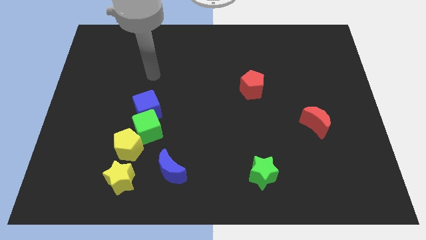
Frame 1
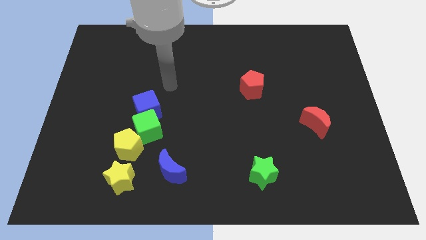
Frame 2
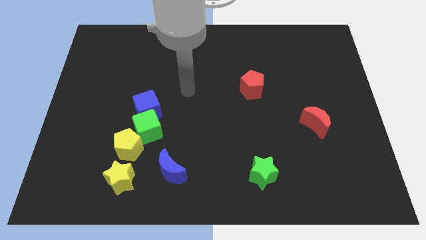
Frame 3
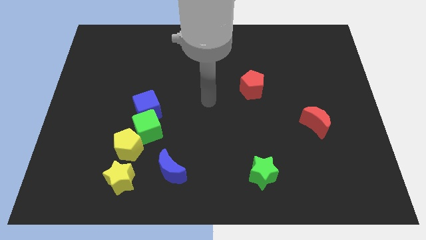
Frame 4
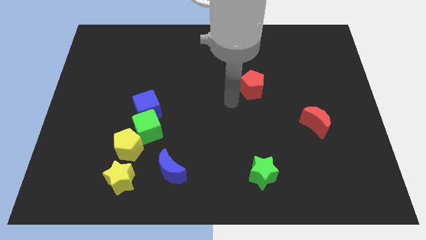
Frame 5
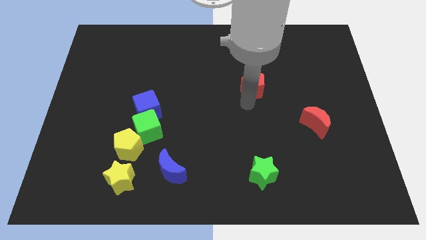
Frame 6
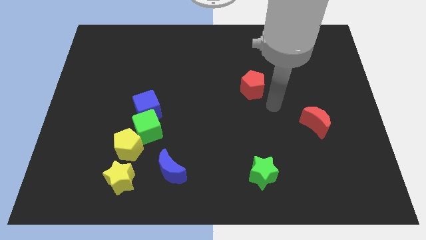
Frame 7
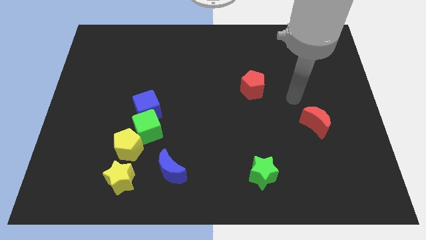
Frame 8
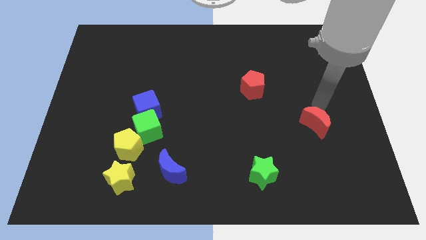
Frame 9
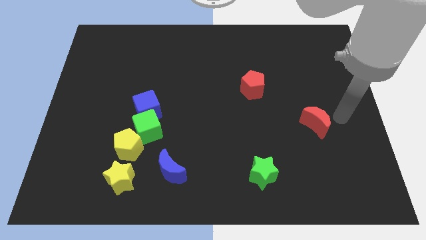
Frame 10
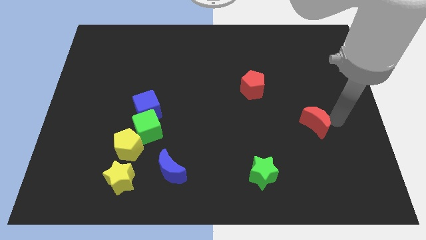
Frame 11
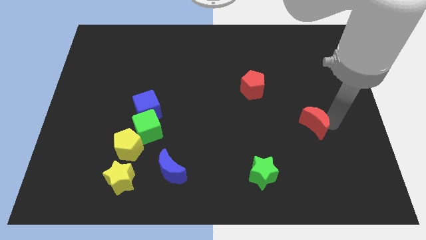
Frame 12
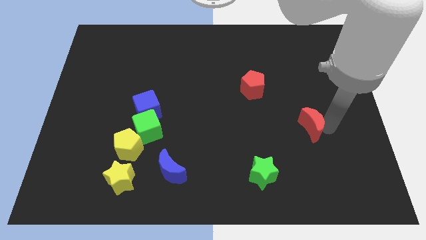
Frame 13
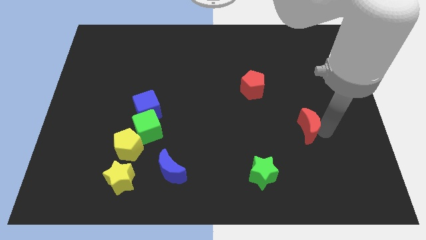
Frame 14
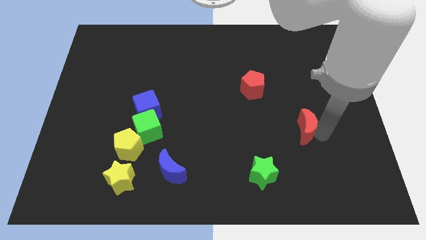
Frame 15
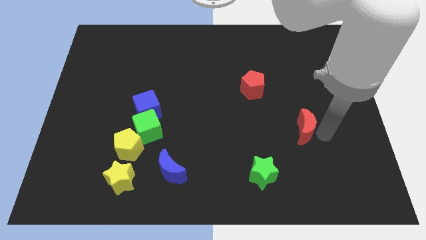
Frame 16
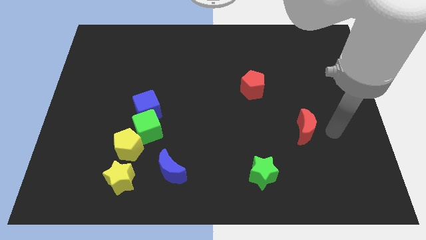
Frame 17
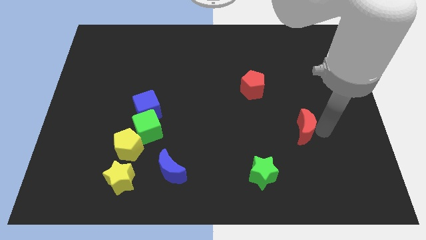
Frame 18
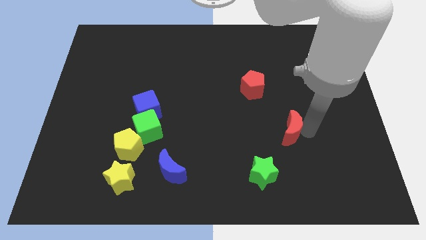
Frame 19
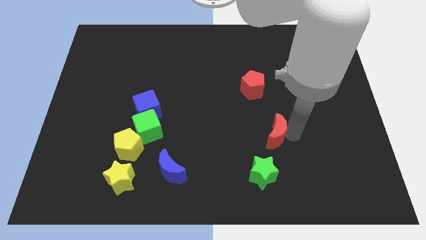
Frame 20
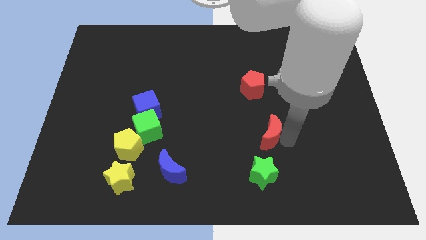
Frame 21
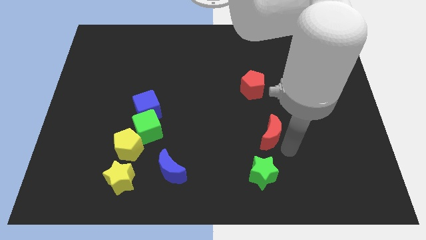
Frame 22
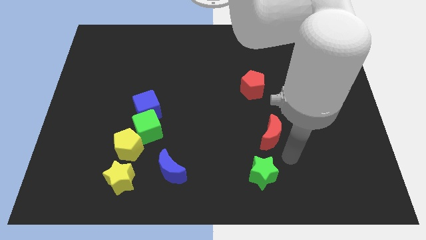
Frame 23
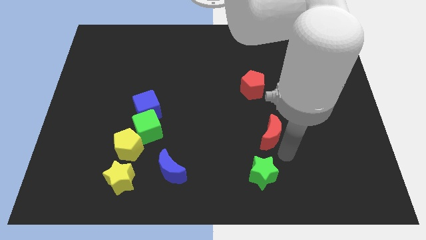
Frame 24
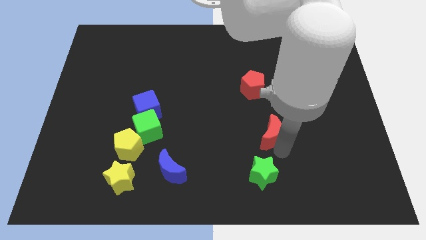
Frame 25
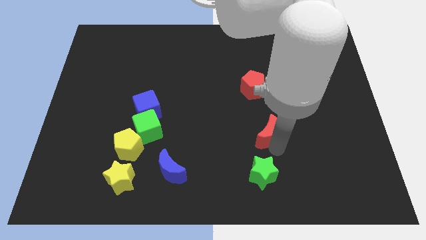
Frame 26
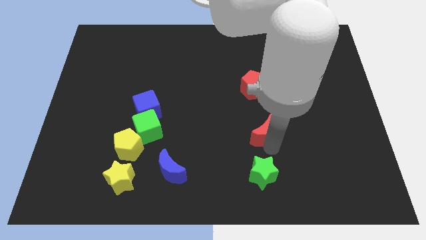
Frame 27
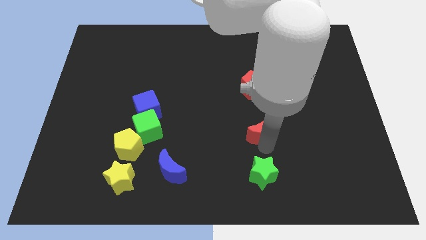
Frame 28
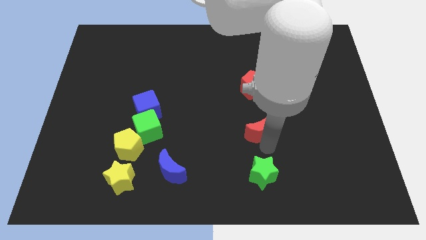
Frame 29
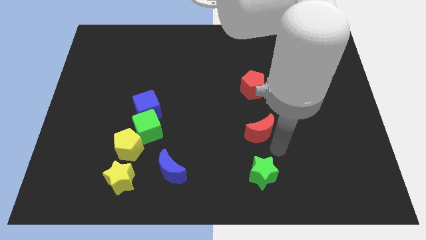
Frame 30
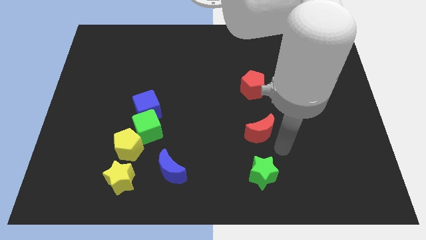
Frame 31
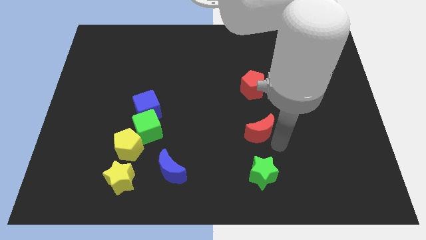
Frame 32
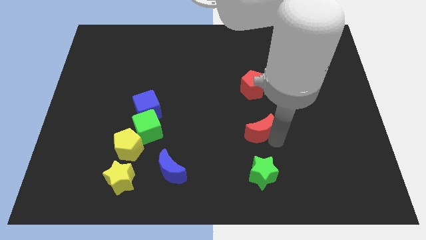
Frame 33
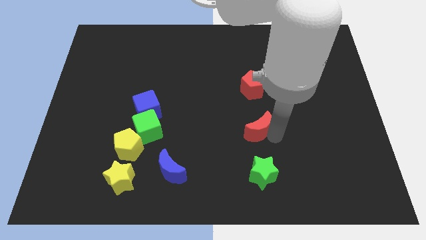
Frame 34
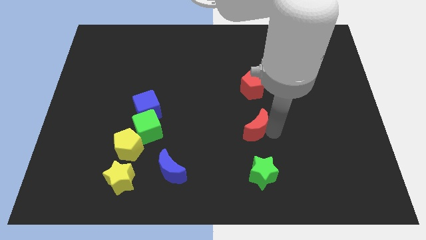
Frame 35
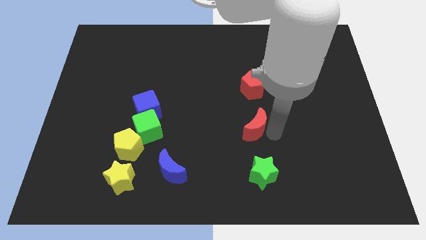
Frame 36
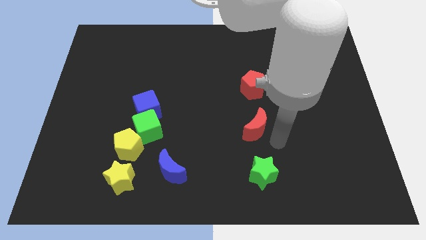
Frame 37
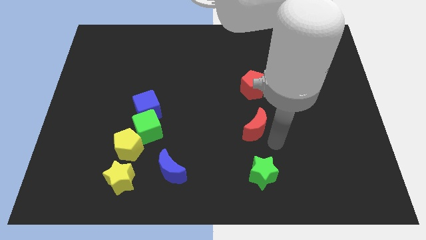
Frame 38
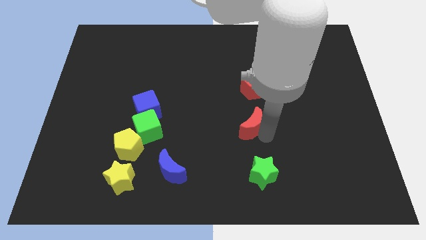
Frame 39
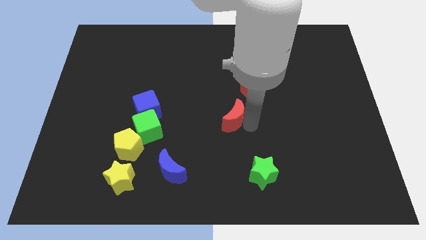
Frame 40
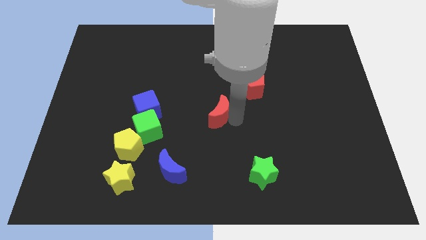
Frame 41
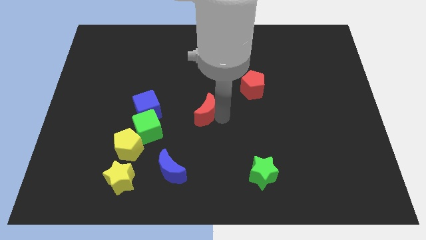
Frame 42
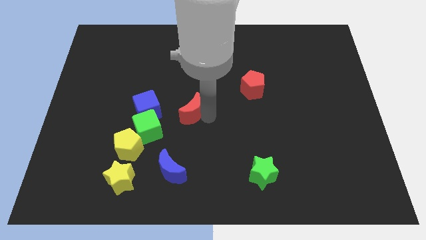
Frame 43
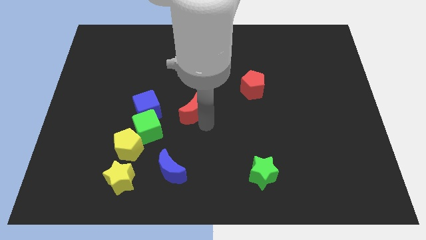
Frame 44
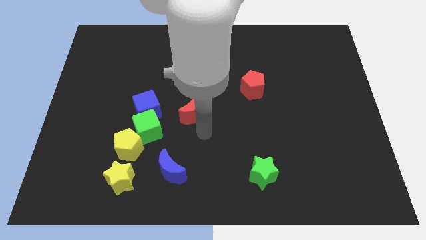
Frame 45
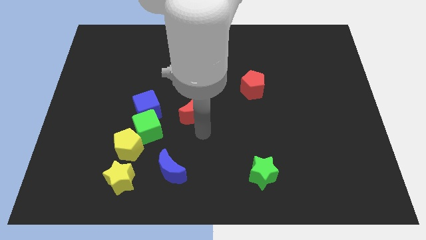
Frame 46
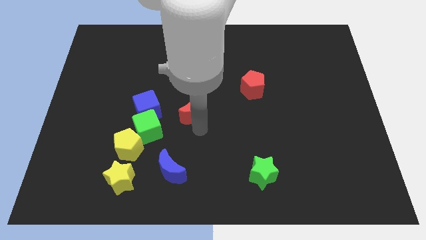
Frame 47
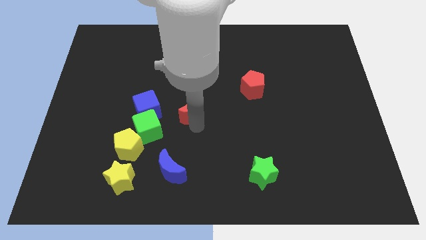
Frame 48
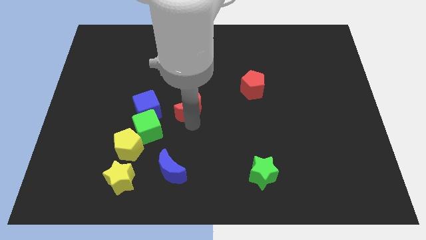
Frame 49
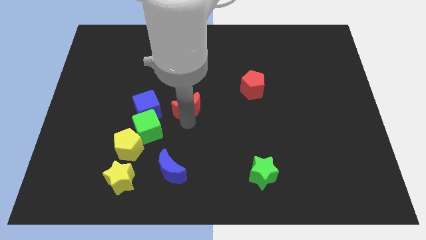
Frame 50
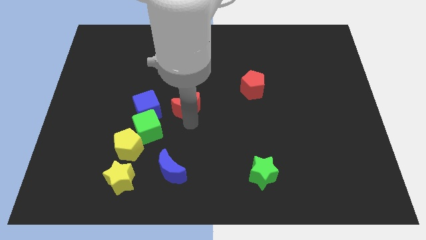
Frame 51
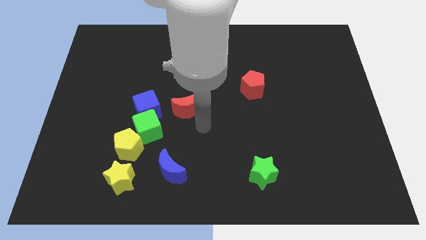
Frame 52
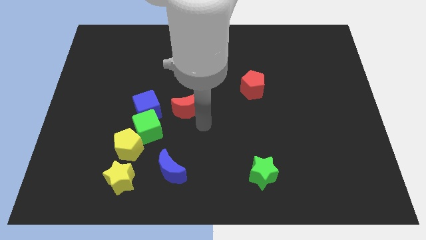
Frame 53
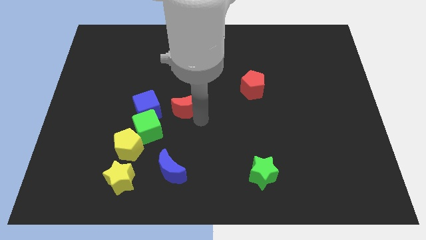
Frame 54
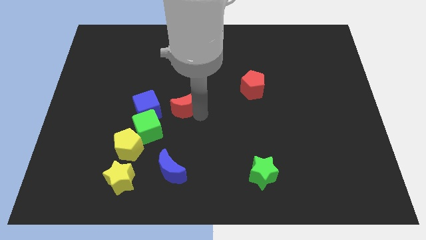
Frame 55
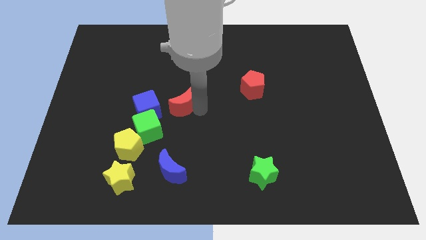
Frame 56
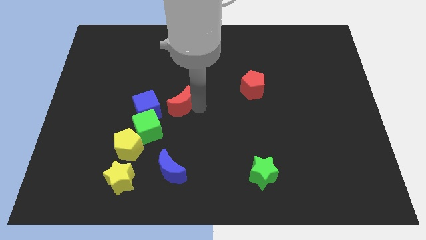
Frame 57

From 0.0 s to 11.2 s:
put the red moon to the top right of the blue cube

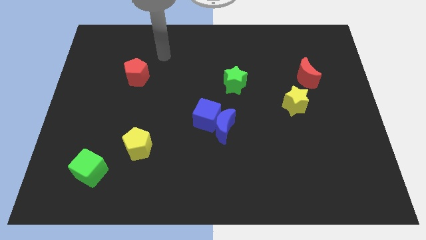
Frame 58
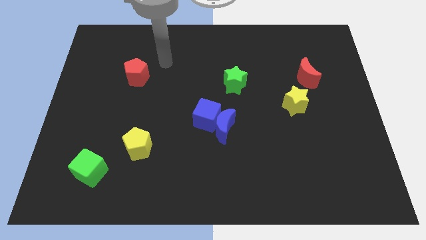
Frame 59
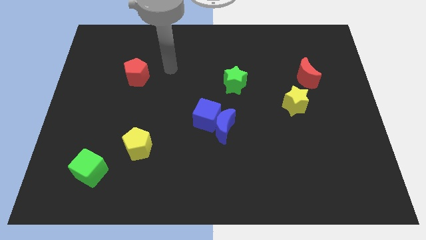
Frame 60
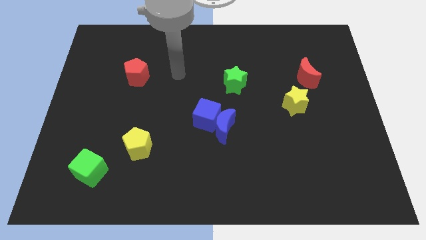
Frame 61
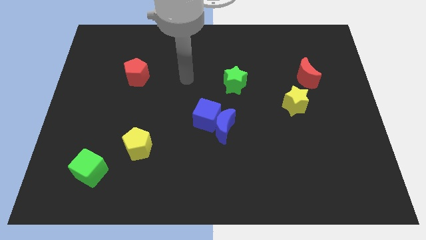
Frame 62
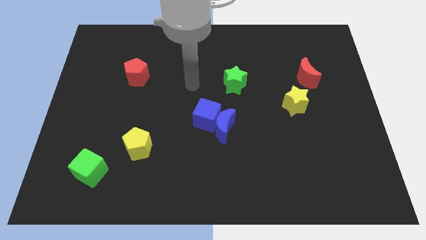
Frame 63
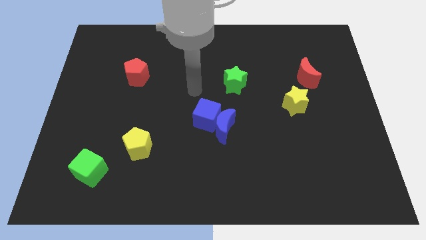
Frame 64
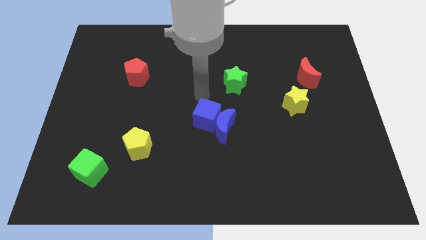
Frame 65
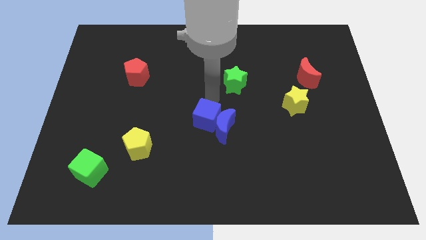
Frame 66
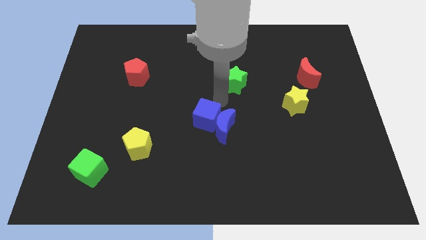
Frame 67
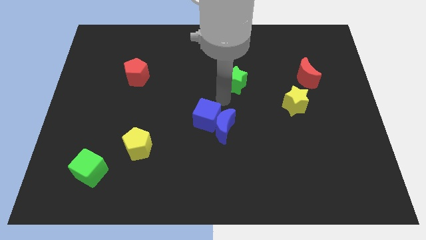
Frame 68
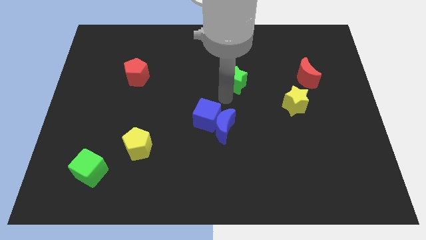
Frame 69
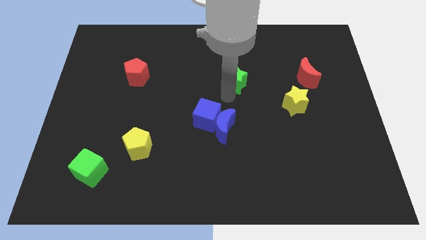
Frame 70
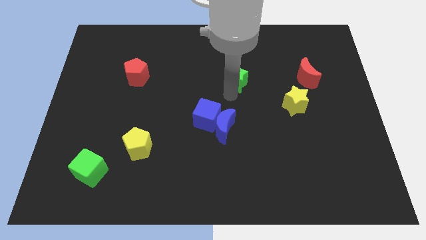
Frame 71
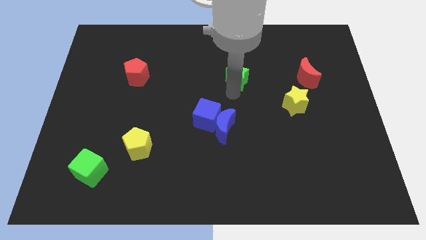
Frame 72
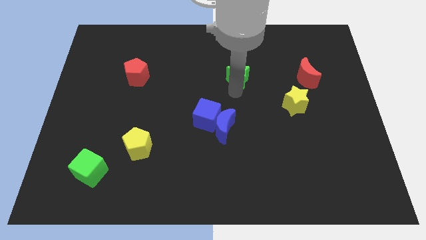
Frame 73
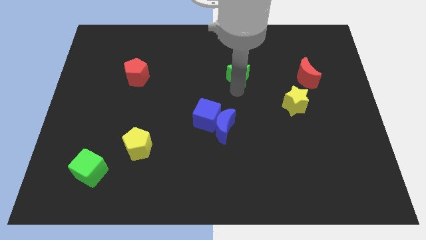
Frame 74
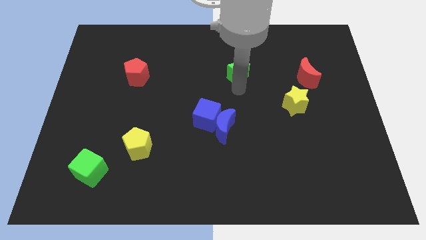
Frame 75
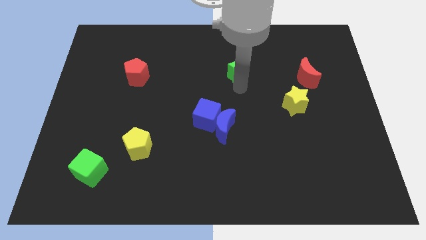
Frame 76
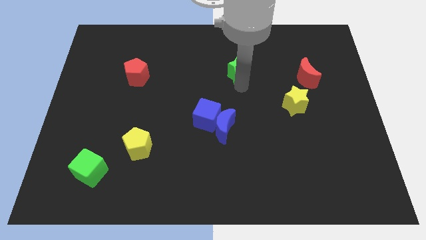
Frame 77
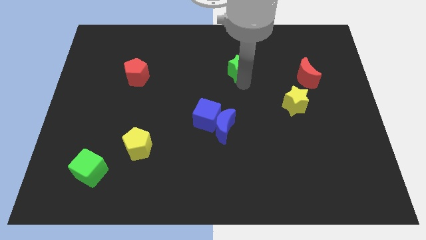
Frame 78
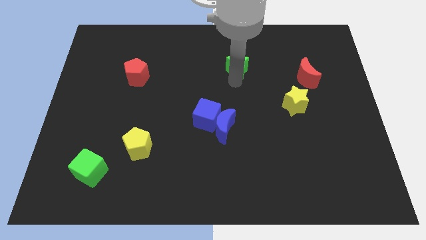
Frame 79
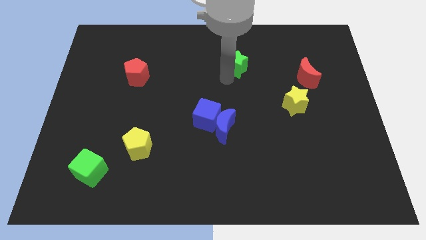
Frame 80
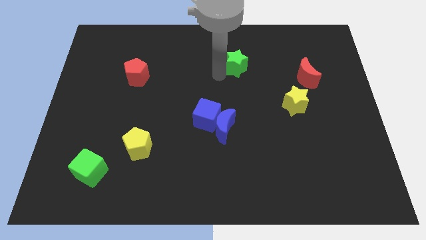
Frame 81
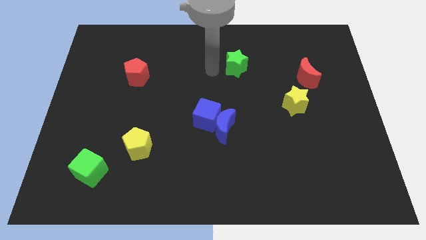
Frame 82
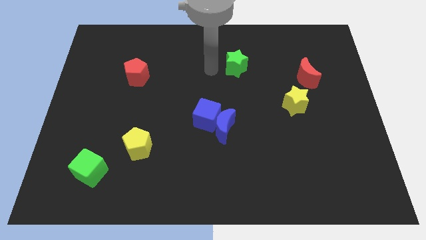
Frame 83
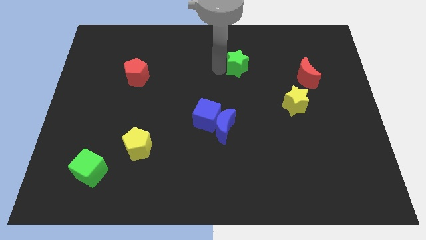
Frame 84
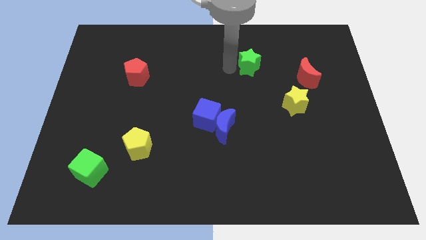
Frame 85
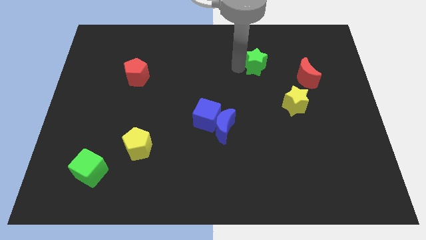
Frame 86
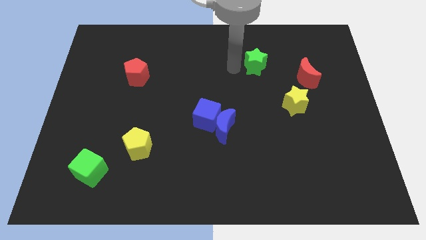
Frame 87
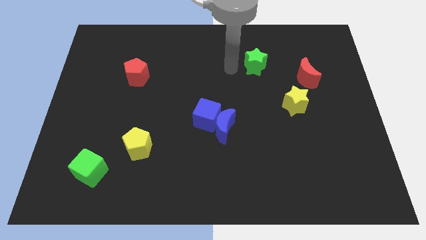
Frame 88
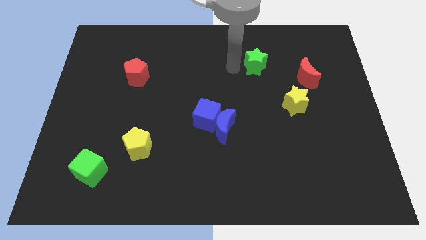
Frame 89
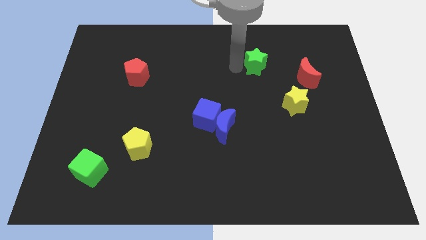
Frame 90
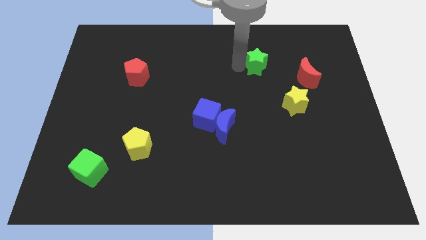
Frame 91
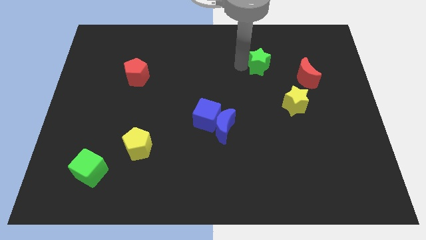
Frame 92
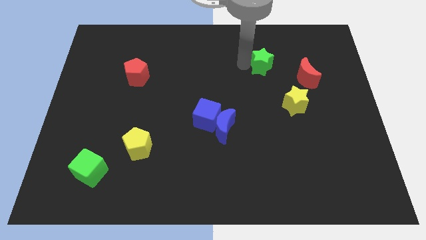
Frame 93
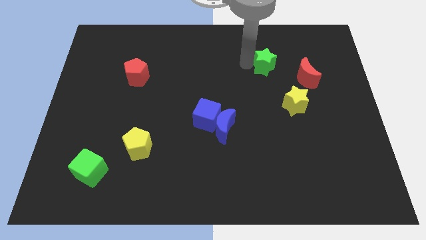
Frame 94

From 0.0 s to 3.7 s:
push the green star diagonally up and to the left of the red moon
